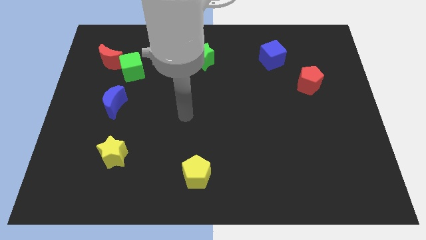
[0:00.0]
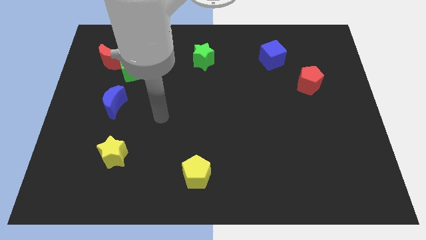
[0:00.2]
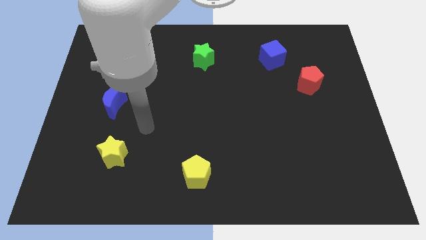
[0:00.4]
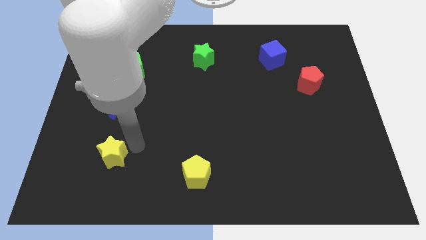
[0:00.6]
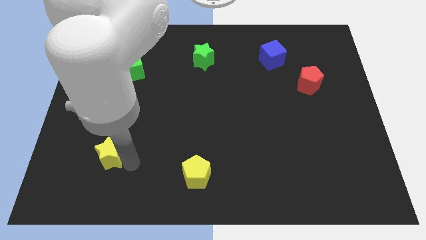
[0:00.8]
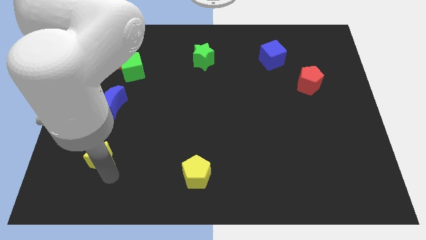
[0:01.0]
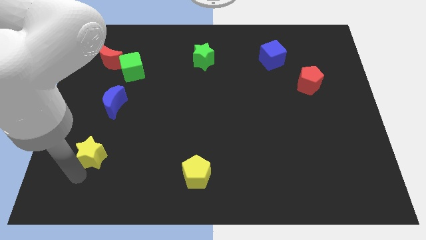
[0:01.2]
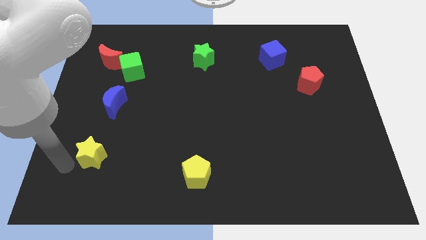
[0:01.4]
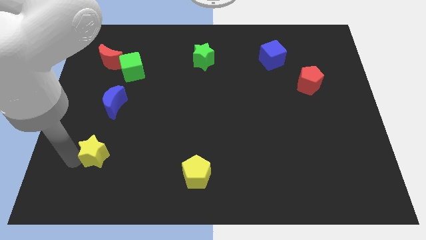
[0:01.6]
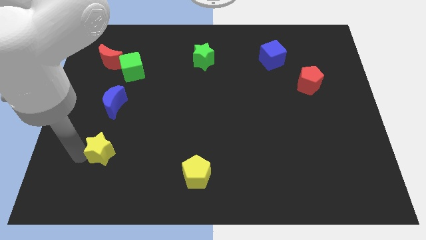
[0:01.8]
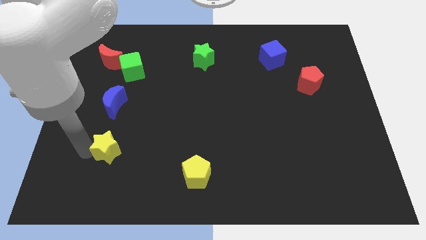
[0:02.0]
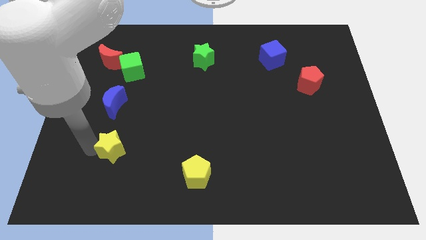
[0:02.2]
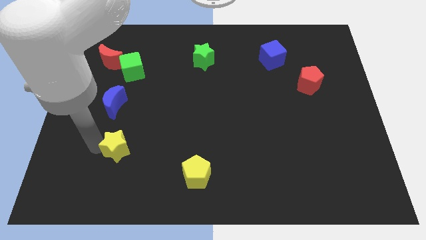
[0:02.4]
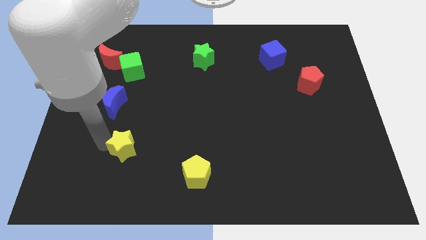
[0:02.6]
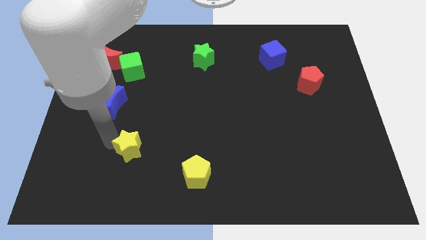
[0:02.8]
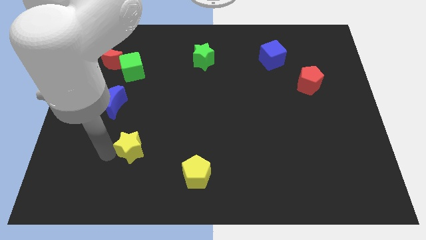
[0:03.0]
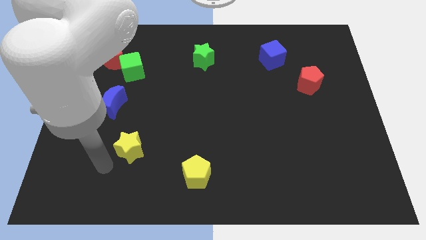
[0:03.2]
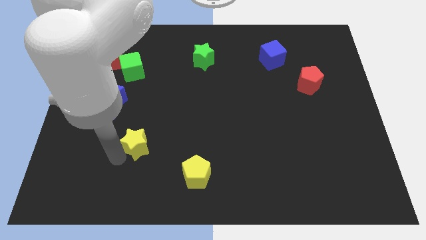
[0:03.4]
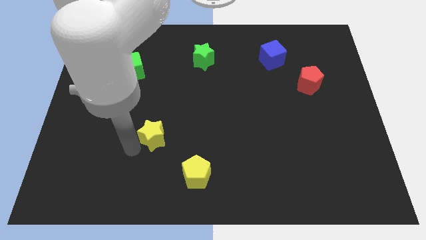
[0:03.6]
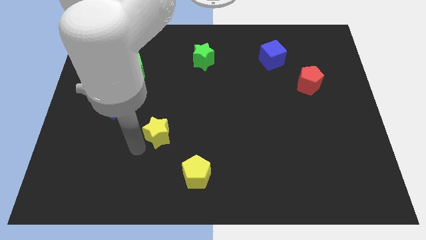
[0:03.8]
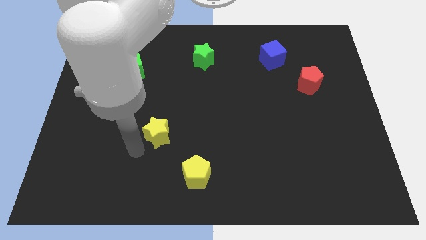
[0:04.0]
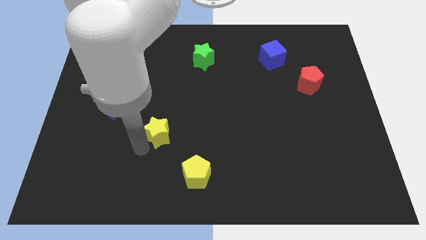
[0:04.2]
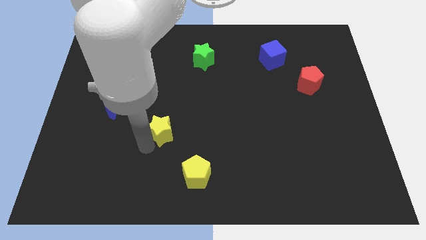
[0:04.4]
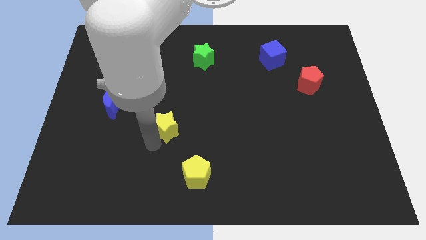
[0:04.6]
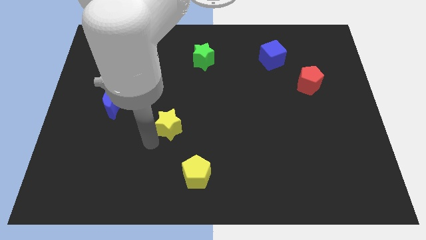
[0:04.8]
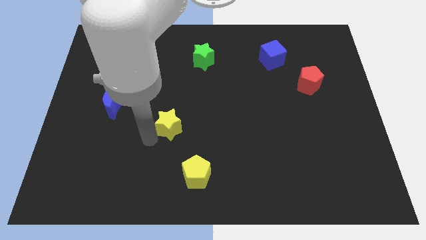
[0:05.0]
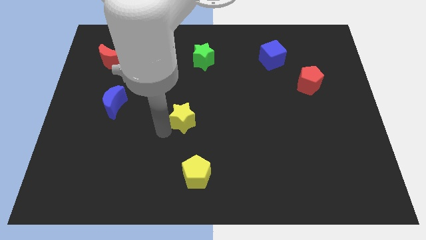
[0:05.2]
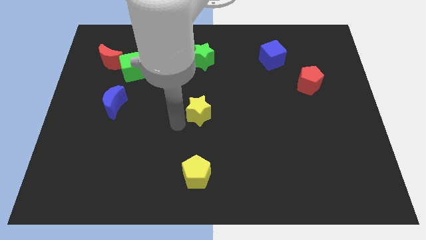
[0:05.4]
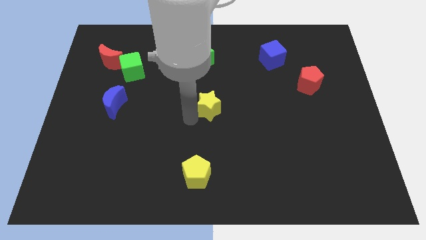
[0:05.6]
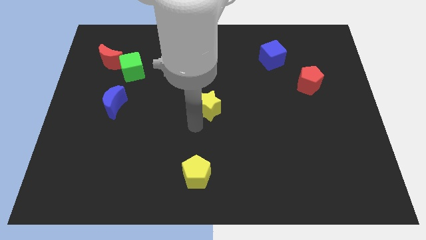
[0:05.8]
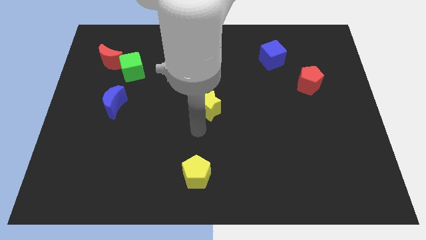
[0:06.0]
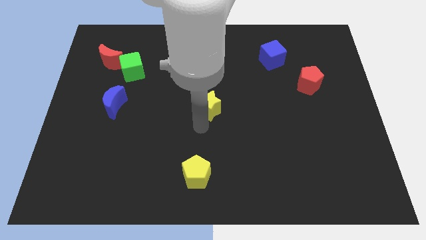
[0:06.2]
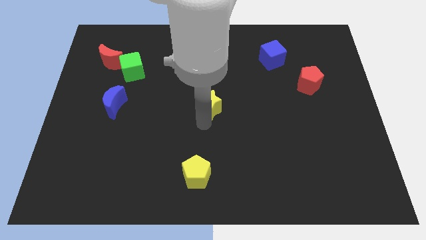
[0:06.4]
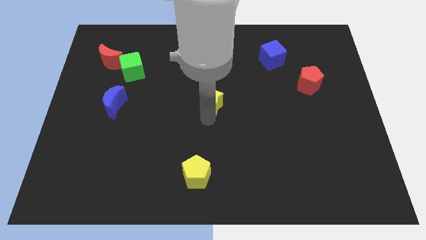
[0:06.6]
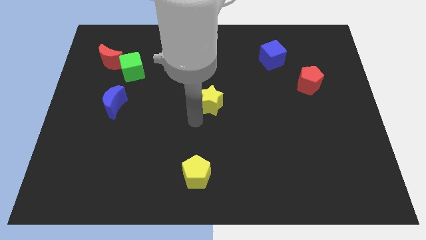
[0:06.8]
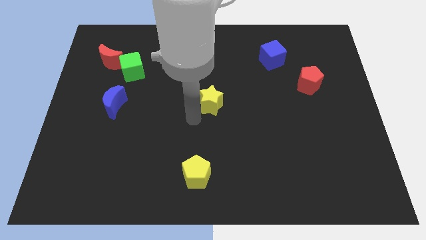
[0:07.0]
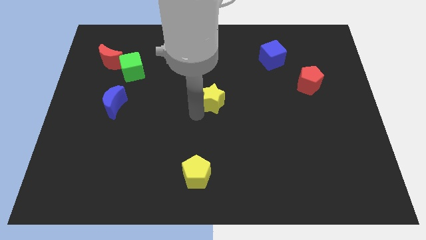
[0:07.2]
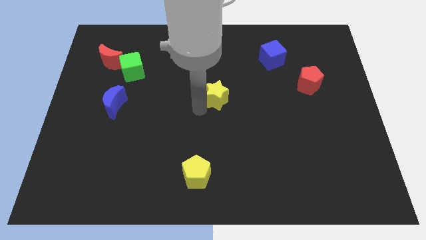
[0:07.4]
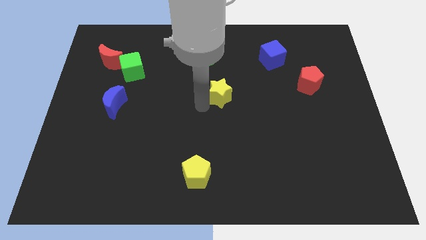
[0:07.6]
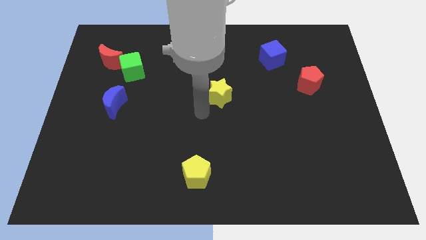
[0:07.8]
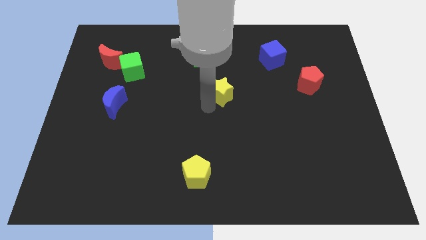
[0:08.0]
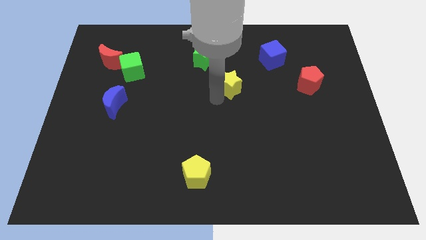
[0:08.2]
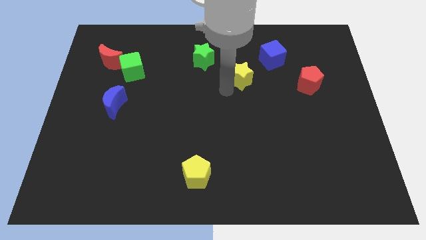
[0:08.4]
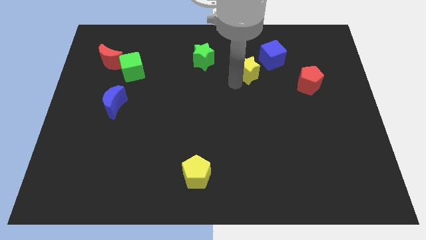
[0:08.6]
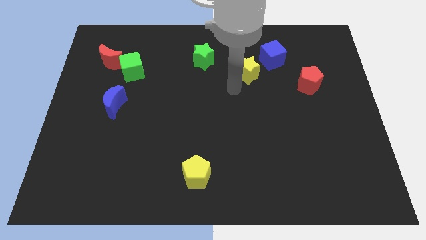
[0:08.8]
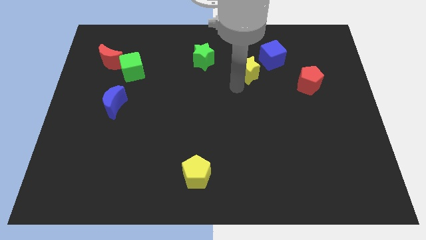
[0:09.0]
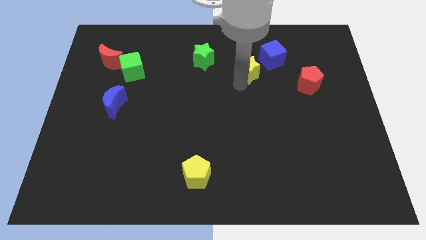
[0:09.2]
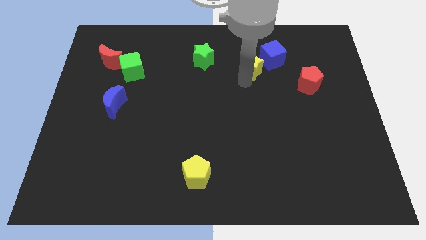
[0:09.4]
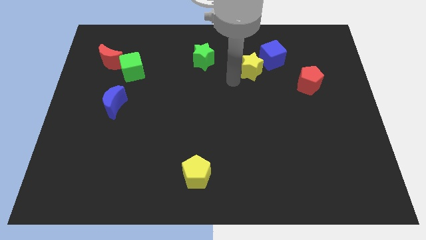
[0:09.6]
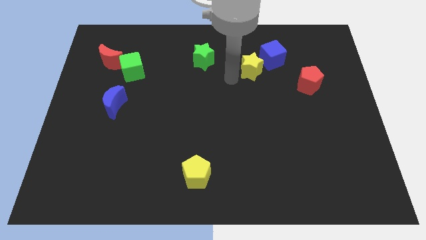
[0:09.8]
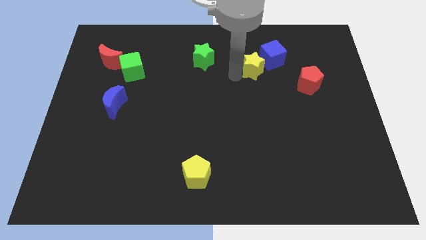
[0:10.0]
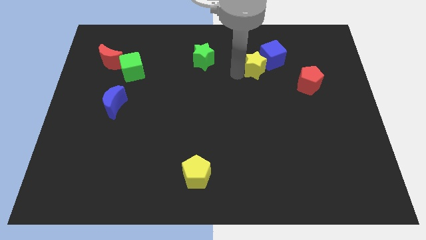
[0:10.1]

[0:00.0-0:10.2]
push the yellow star next to the blue cube
